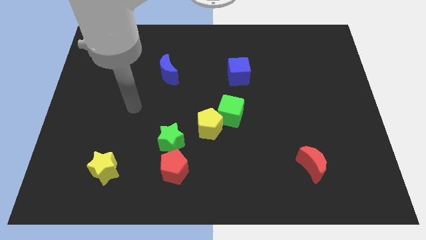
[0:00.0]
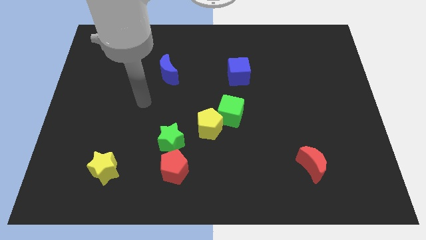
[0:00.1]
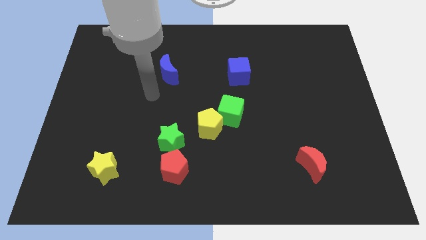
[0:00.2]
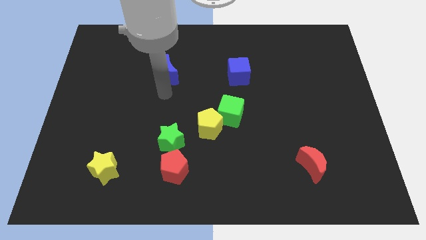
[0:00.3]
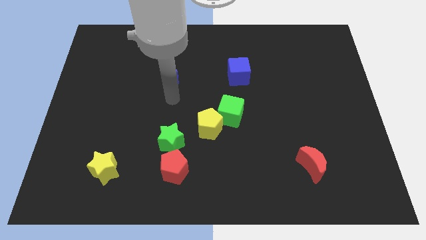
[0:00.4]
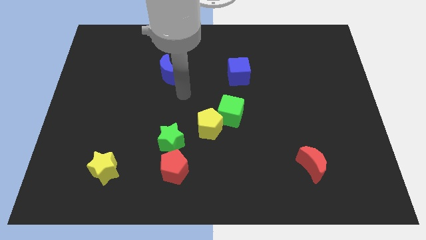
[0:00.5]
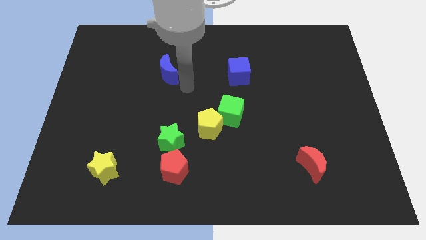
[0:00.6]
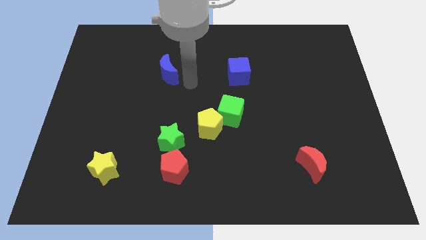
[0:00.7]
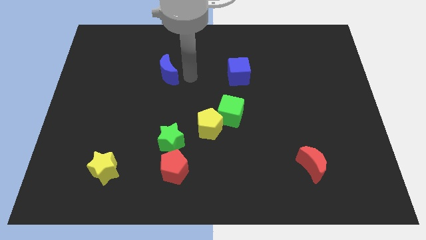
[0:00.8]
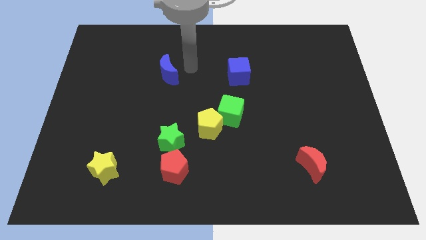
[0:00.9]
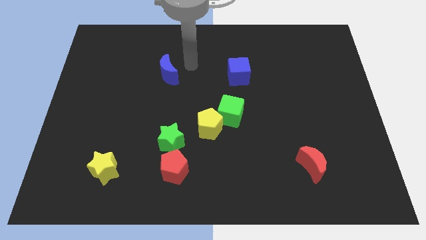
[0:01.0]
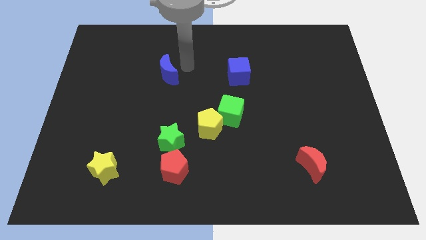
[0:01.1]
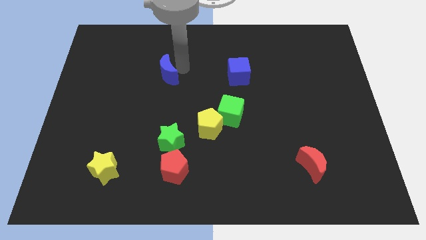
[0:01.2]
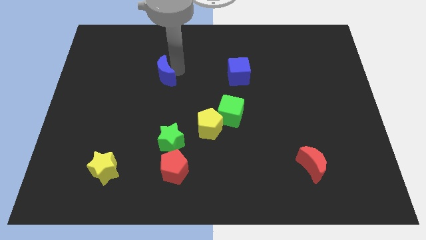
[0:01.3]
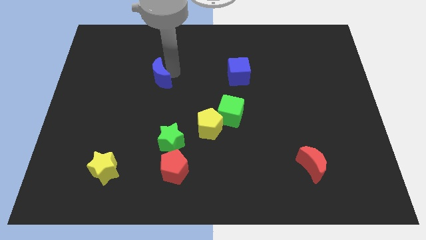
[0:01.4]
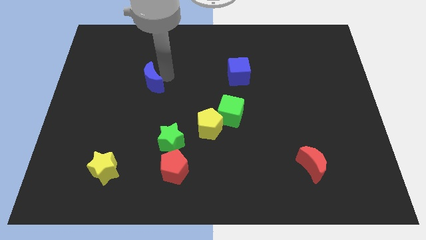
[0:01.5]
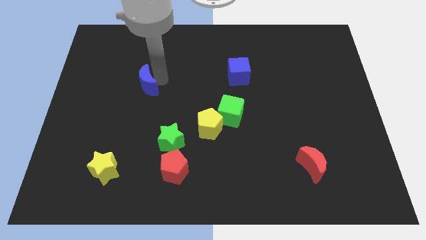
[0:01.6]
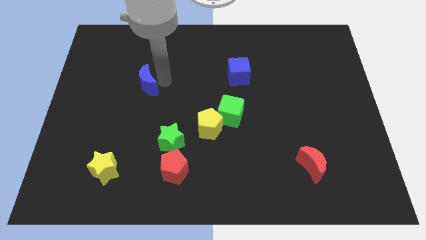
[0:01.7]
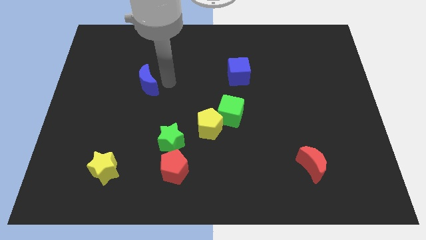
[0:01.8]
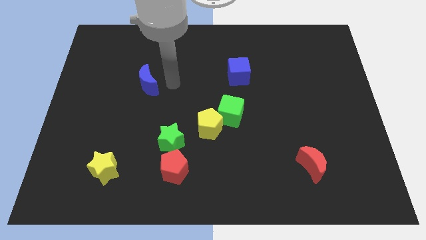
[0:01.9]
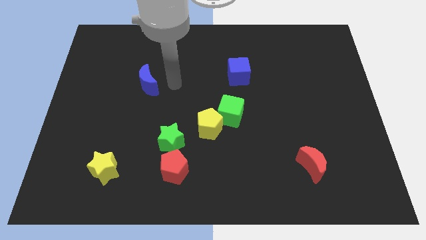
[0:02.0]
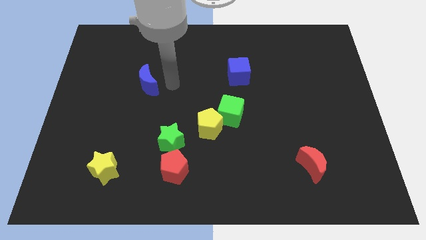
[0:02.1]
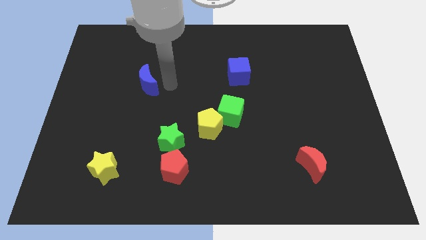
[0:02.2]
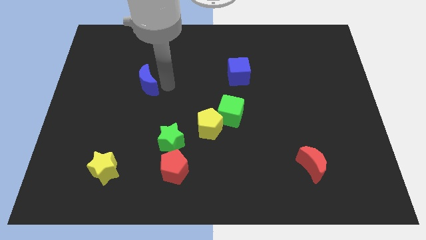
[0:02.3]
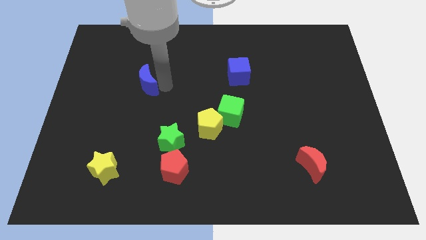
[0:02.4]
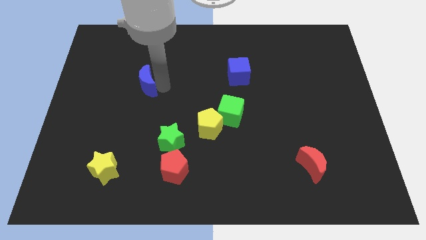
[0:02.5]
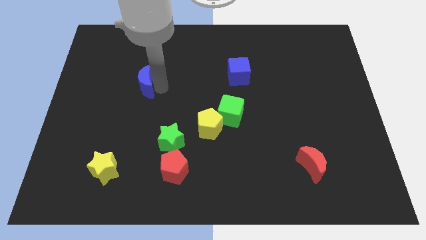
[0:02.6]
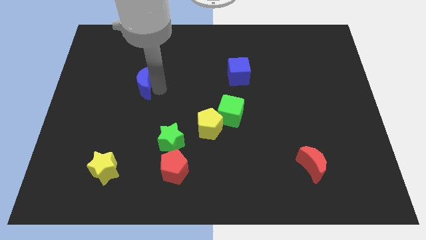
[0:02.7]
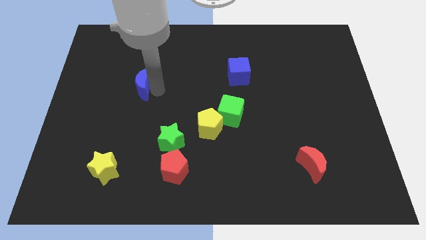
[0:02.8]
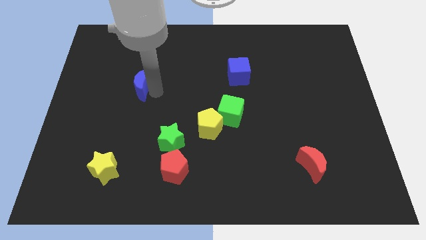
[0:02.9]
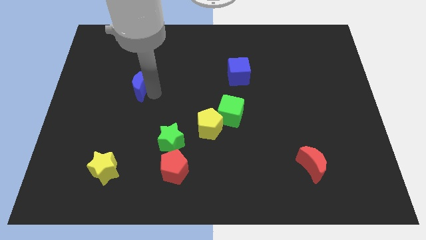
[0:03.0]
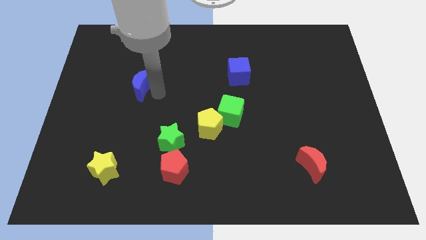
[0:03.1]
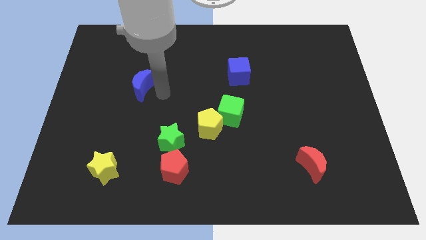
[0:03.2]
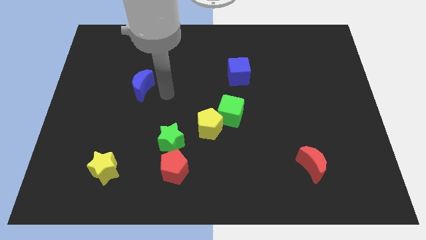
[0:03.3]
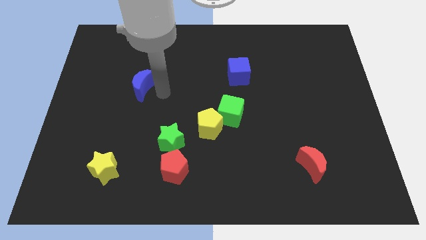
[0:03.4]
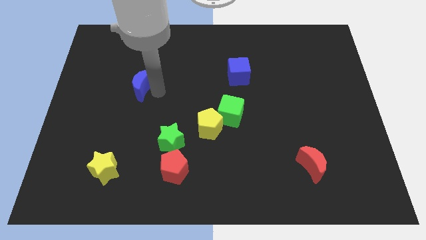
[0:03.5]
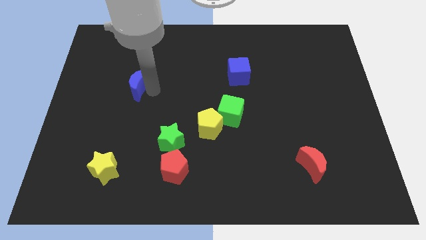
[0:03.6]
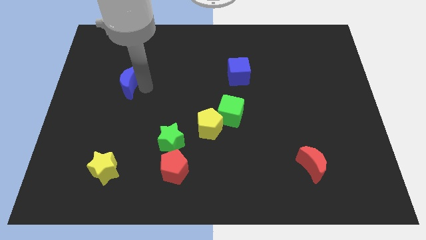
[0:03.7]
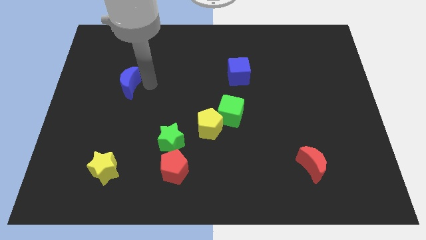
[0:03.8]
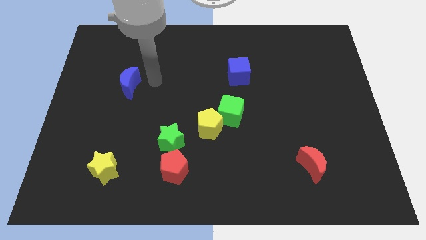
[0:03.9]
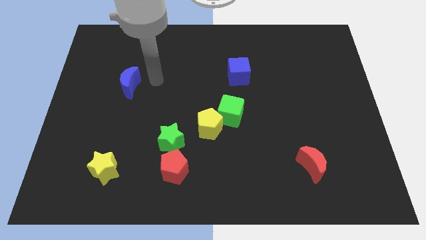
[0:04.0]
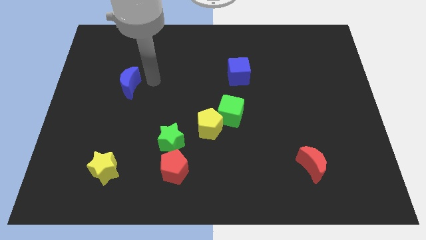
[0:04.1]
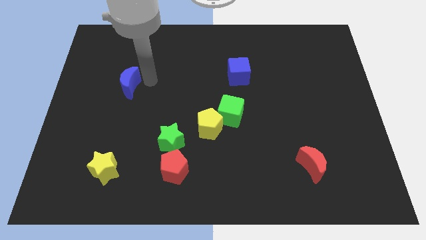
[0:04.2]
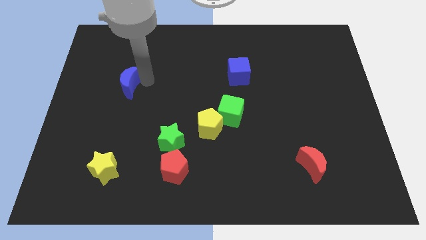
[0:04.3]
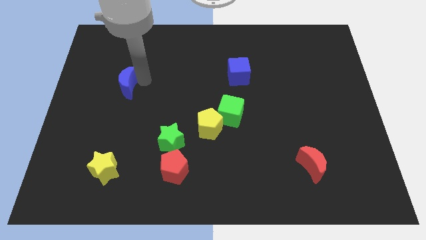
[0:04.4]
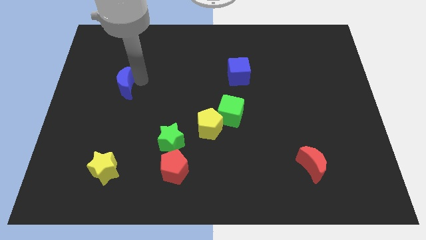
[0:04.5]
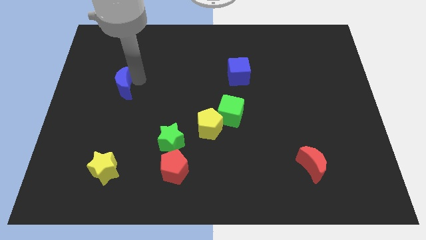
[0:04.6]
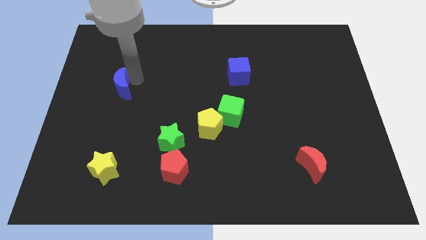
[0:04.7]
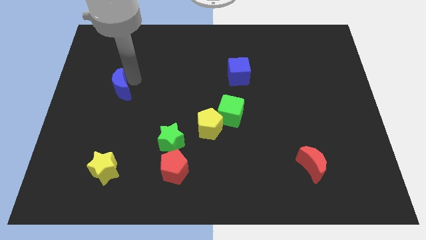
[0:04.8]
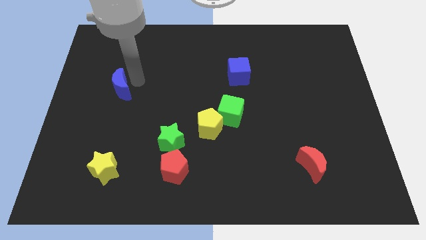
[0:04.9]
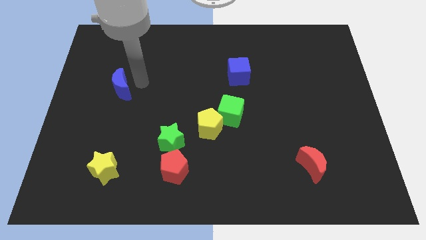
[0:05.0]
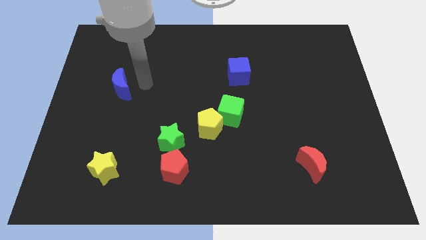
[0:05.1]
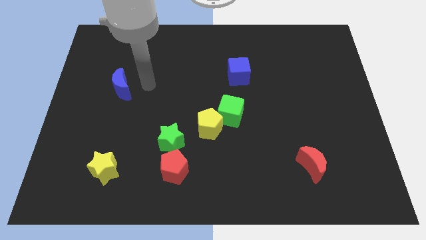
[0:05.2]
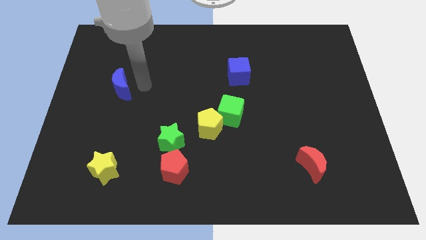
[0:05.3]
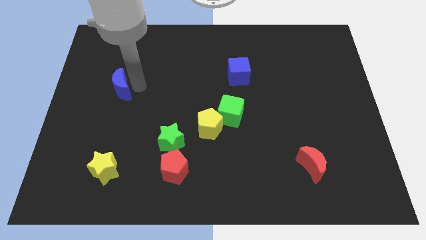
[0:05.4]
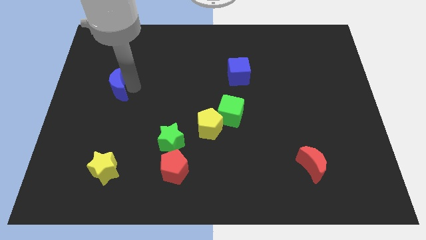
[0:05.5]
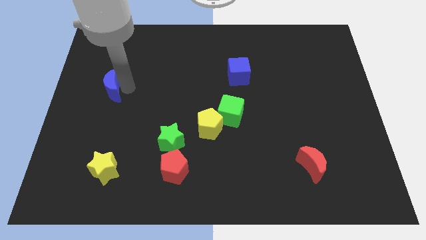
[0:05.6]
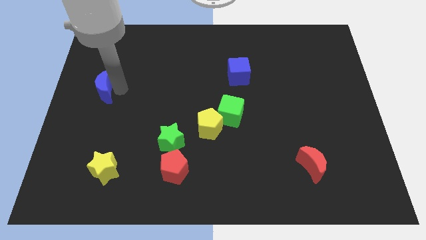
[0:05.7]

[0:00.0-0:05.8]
move the blue moon to the center left

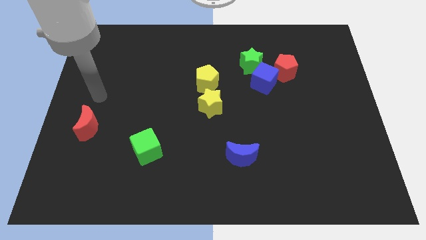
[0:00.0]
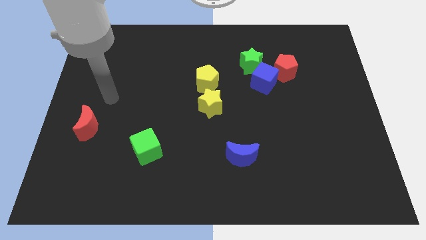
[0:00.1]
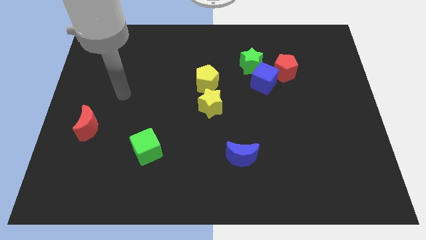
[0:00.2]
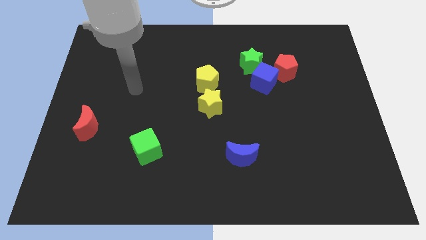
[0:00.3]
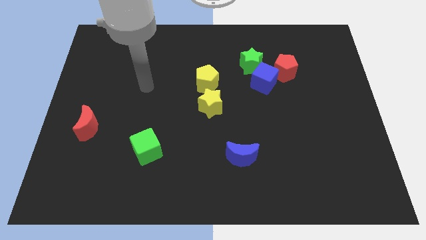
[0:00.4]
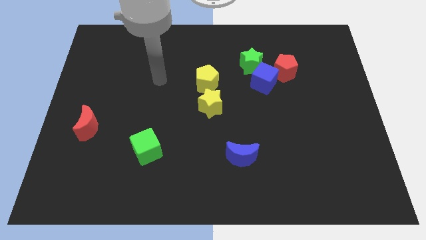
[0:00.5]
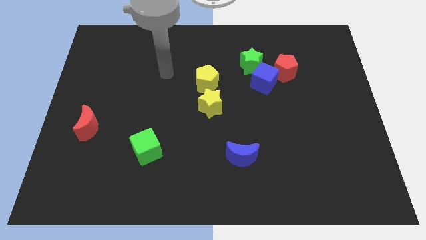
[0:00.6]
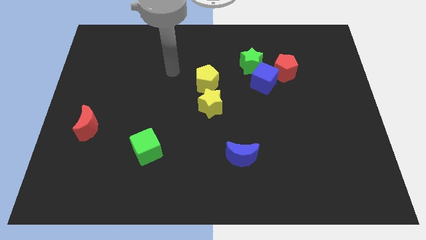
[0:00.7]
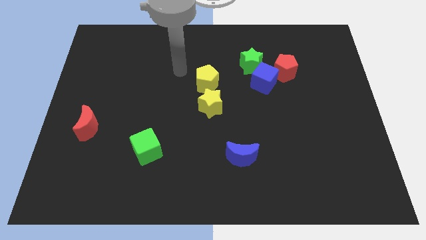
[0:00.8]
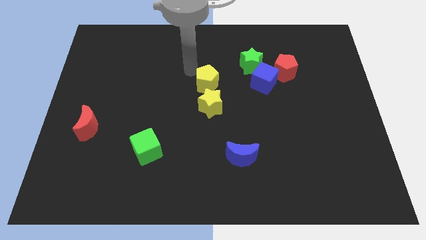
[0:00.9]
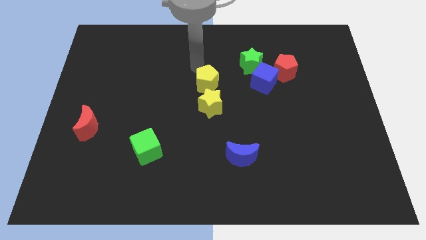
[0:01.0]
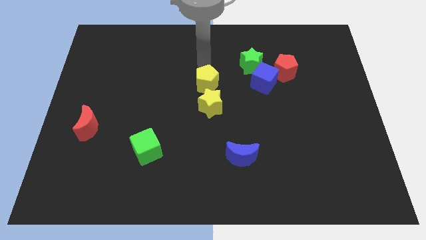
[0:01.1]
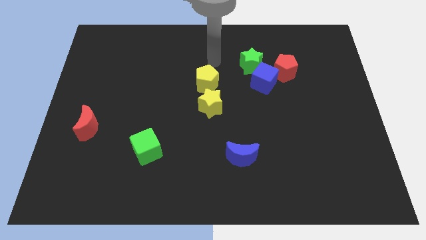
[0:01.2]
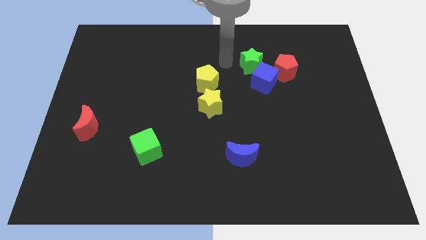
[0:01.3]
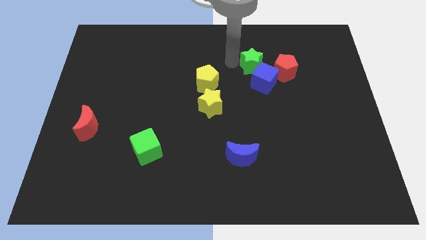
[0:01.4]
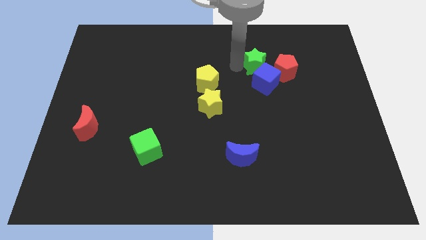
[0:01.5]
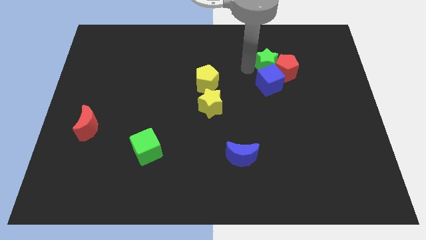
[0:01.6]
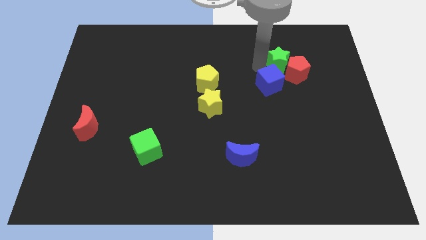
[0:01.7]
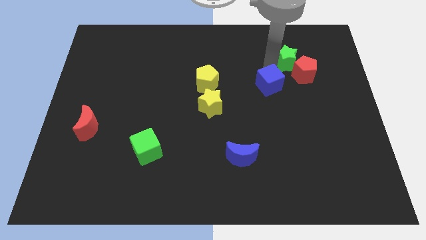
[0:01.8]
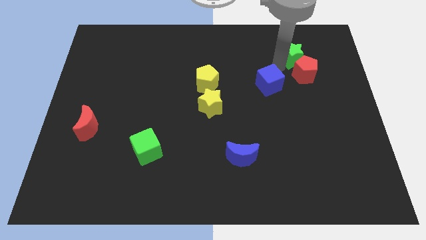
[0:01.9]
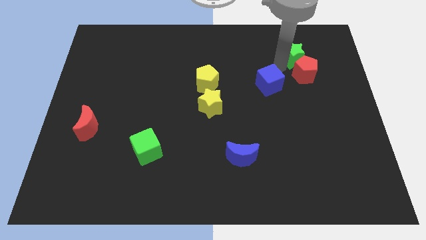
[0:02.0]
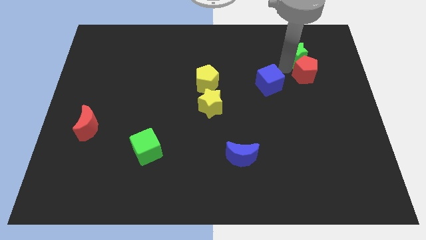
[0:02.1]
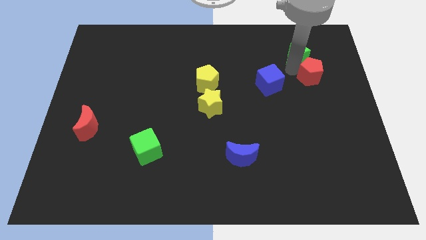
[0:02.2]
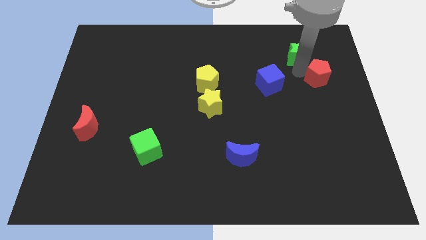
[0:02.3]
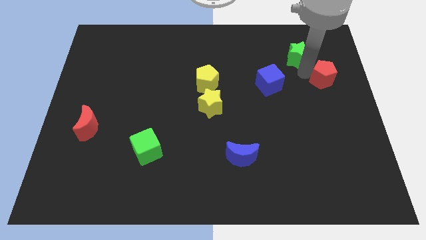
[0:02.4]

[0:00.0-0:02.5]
move the red pentagon to the right side
